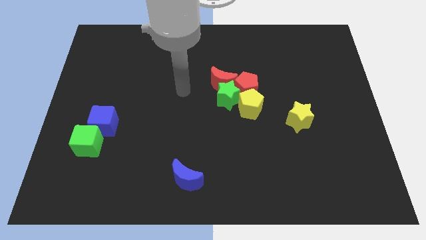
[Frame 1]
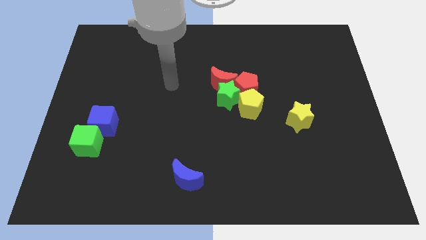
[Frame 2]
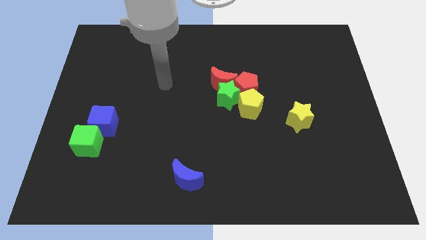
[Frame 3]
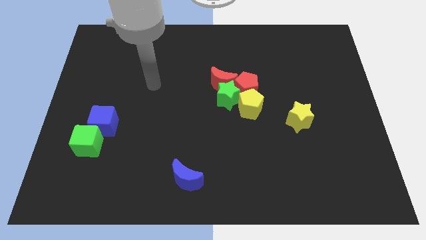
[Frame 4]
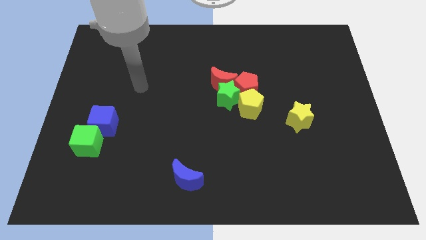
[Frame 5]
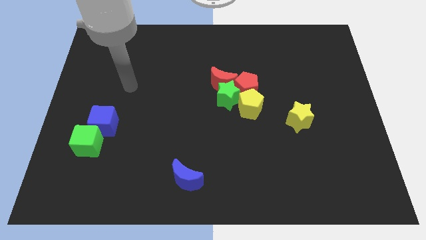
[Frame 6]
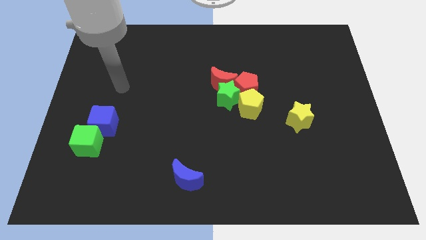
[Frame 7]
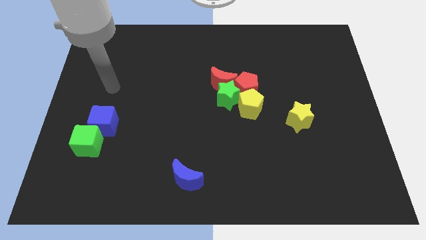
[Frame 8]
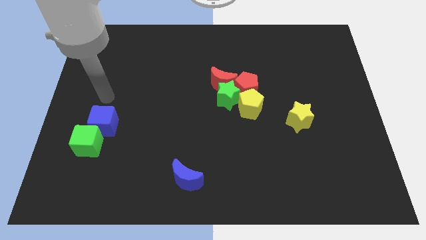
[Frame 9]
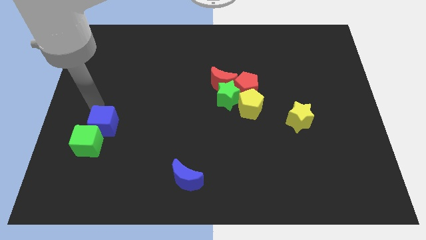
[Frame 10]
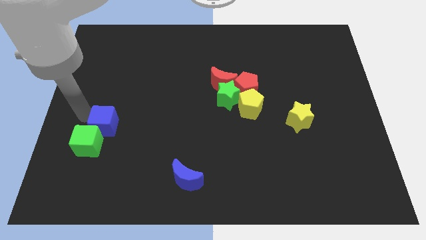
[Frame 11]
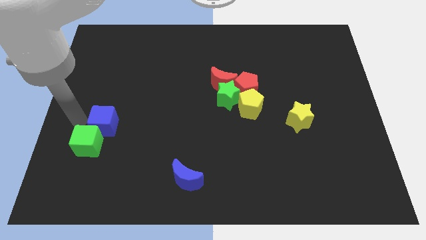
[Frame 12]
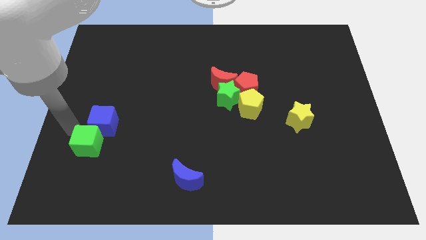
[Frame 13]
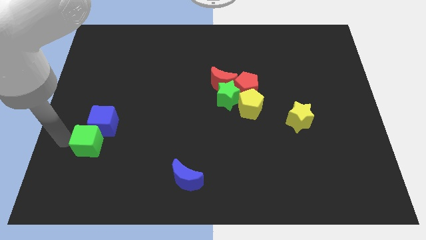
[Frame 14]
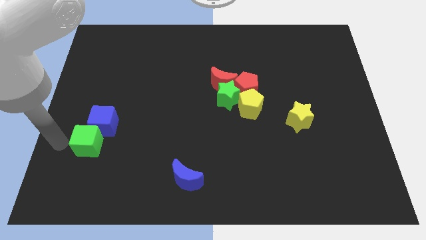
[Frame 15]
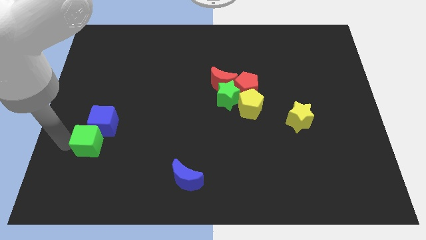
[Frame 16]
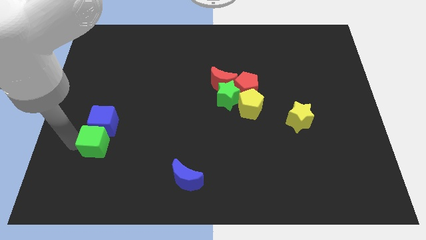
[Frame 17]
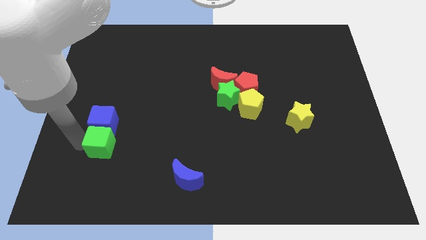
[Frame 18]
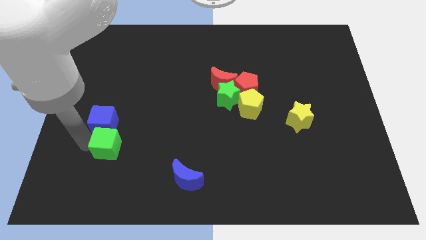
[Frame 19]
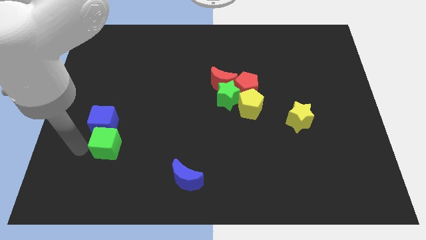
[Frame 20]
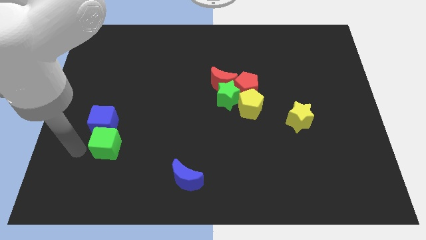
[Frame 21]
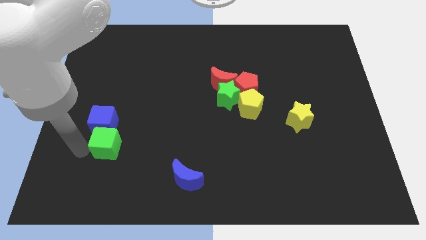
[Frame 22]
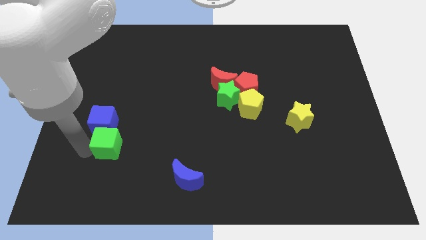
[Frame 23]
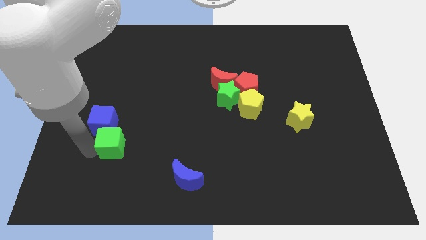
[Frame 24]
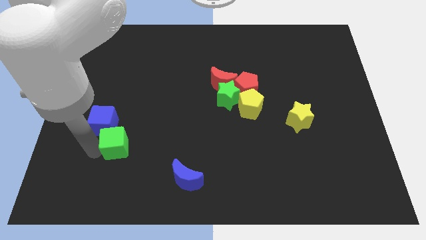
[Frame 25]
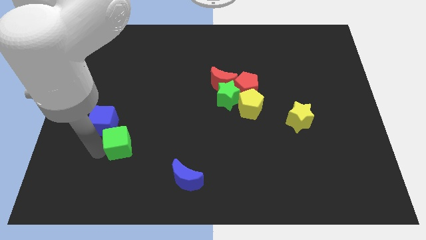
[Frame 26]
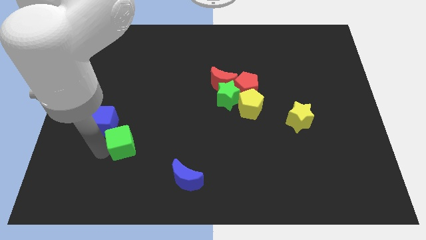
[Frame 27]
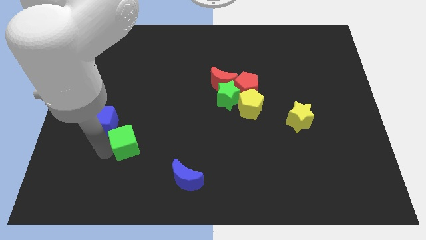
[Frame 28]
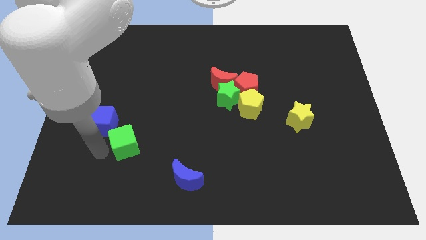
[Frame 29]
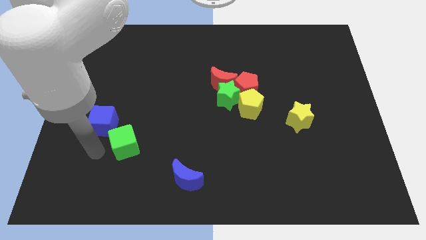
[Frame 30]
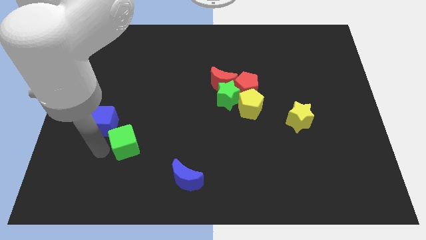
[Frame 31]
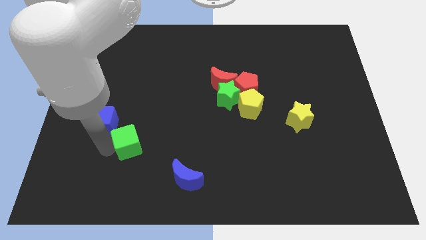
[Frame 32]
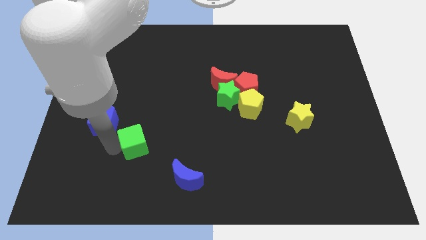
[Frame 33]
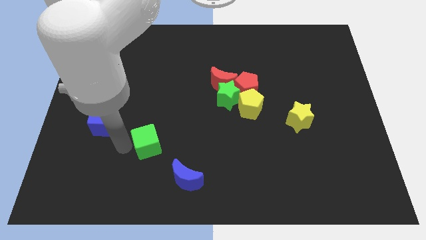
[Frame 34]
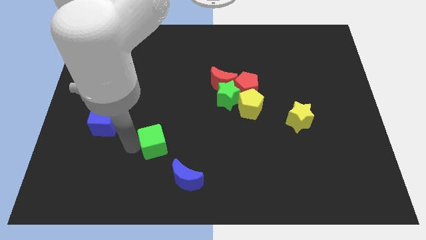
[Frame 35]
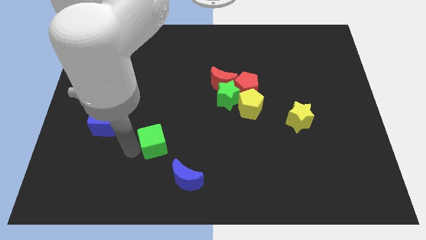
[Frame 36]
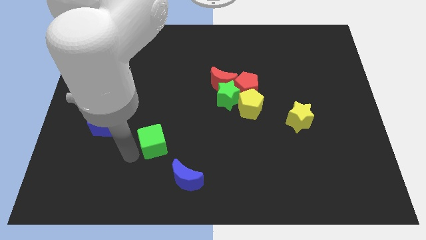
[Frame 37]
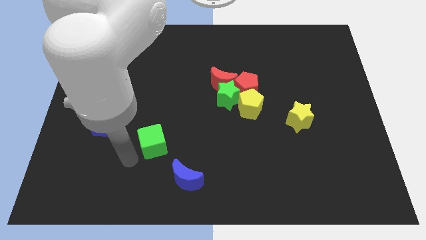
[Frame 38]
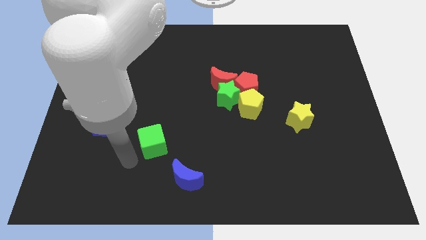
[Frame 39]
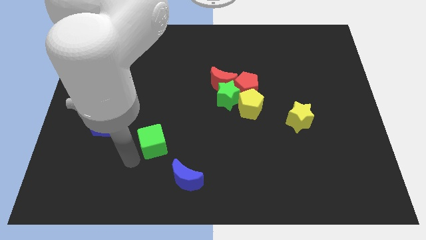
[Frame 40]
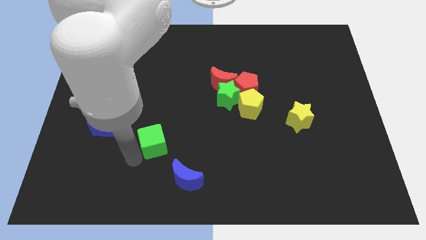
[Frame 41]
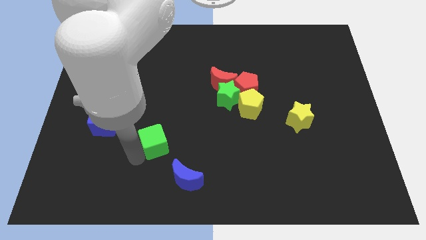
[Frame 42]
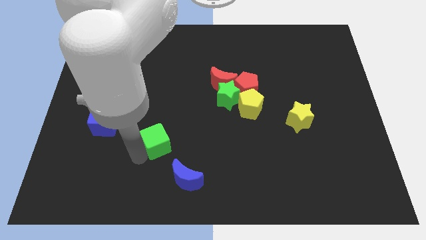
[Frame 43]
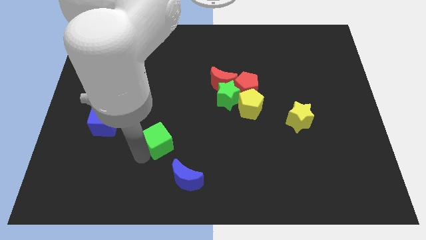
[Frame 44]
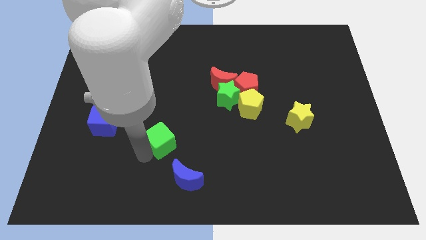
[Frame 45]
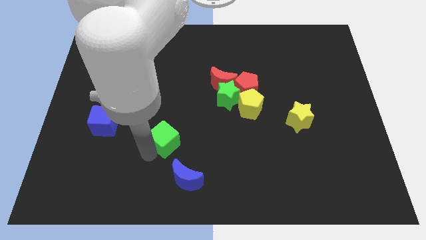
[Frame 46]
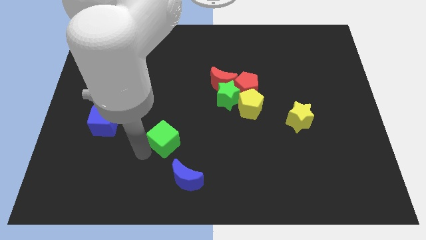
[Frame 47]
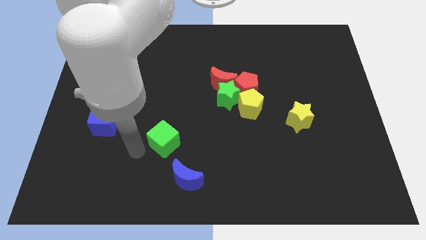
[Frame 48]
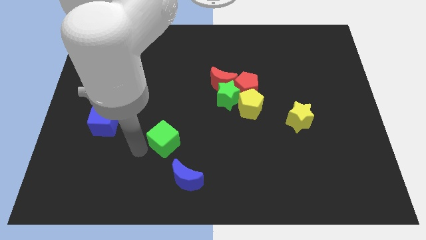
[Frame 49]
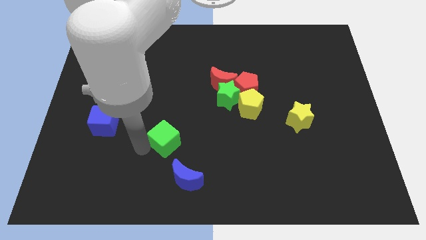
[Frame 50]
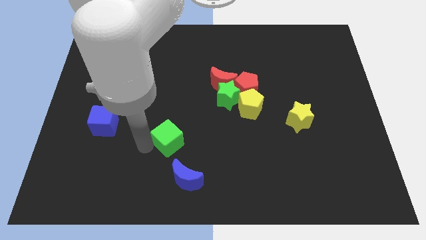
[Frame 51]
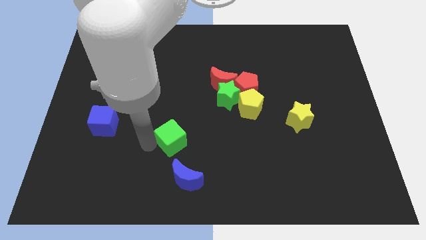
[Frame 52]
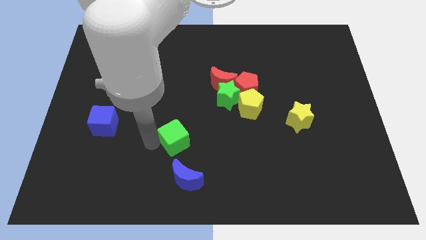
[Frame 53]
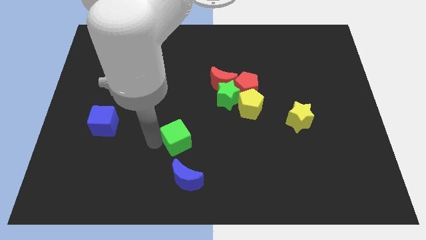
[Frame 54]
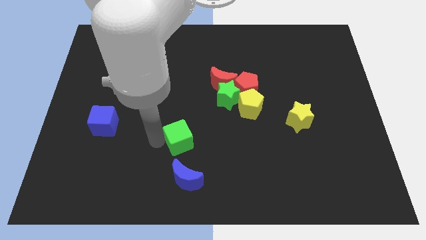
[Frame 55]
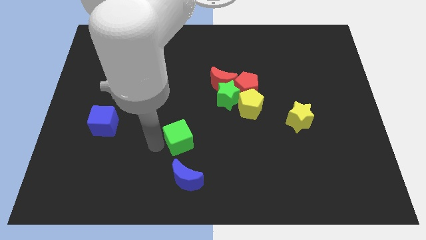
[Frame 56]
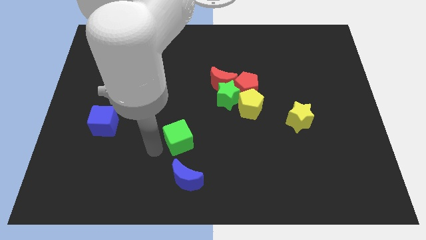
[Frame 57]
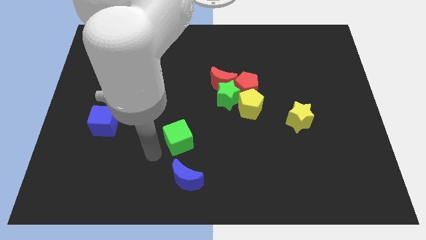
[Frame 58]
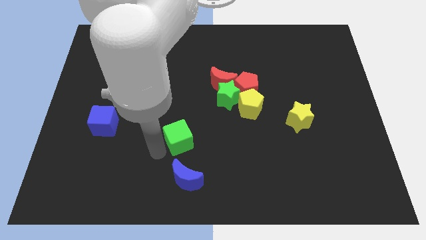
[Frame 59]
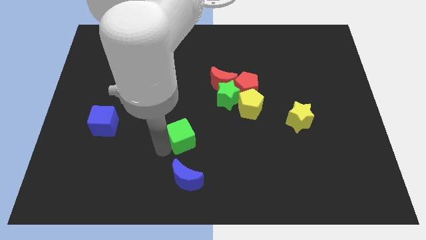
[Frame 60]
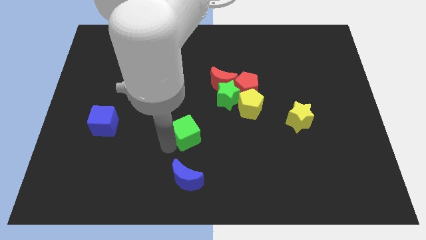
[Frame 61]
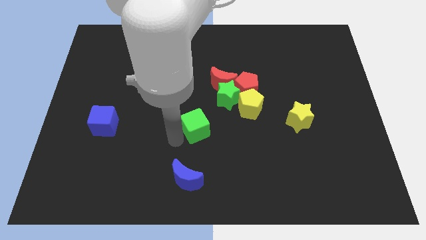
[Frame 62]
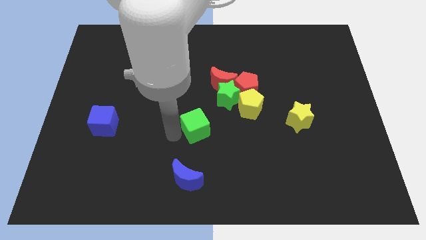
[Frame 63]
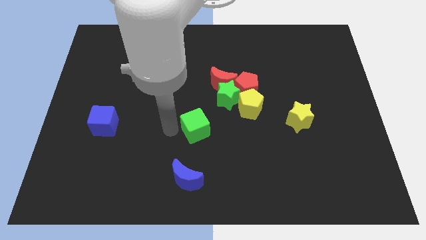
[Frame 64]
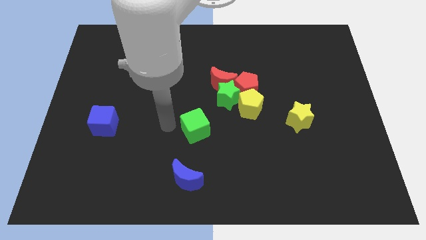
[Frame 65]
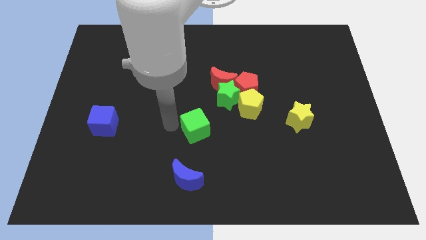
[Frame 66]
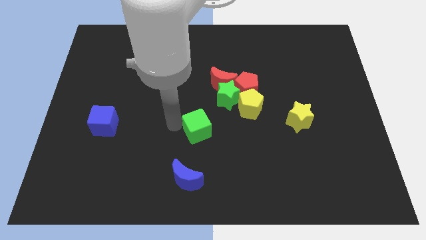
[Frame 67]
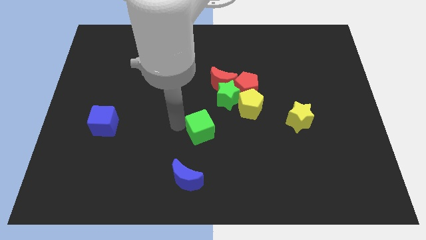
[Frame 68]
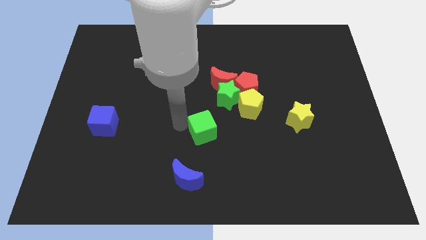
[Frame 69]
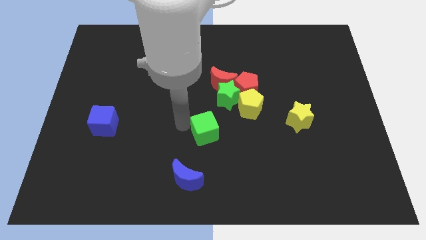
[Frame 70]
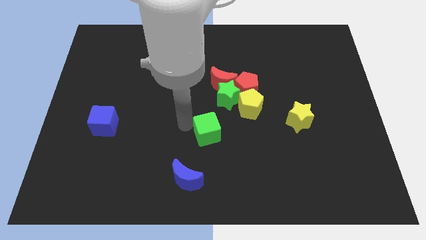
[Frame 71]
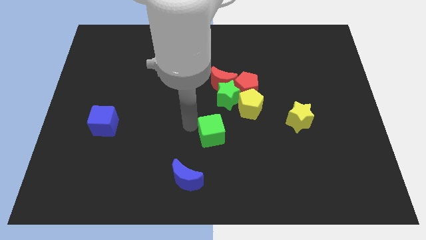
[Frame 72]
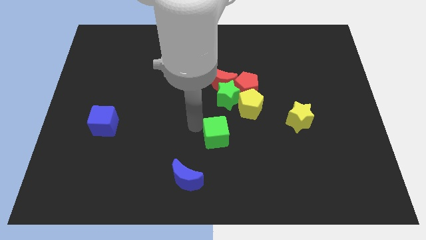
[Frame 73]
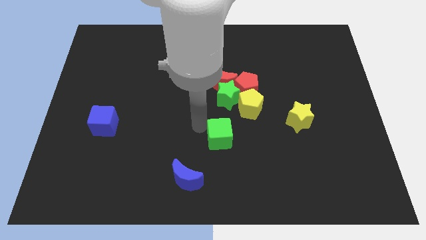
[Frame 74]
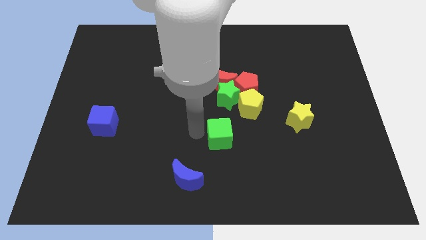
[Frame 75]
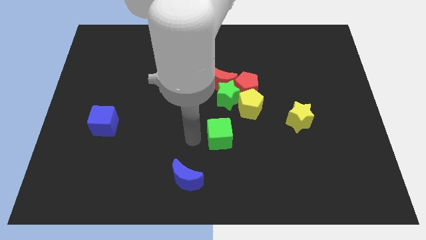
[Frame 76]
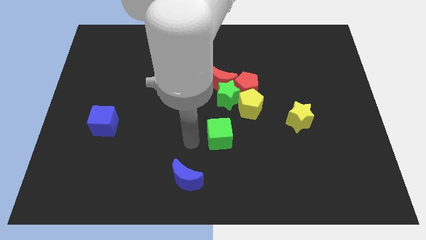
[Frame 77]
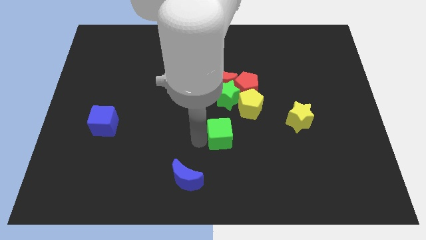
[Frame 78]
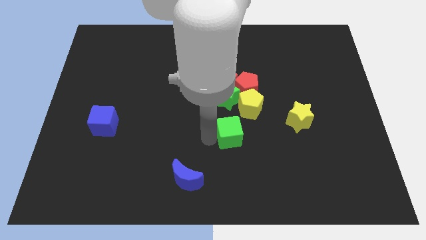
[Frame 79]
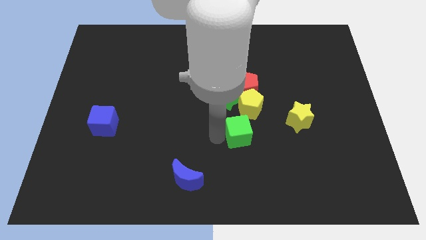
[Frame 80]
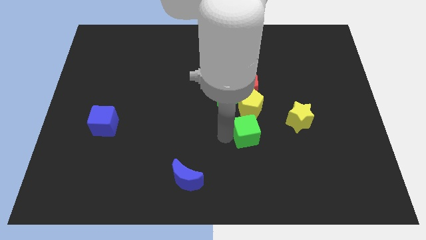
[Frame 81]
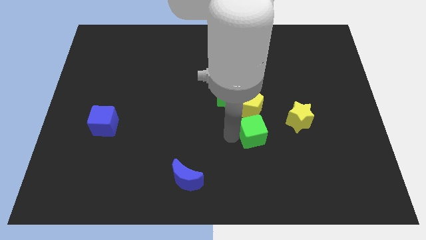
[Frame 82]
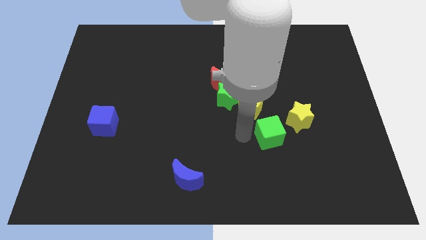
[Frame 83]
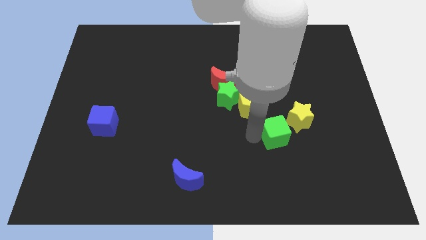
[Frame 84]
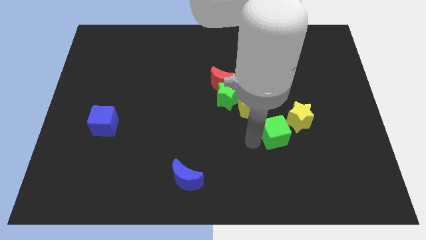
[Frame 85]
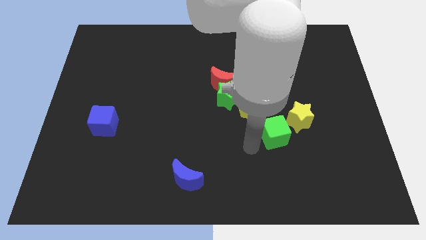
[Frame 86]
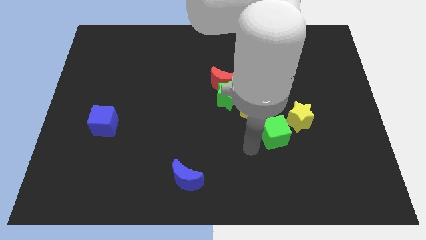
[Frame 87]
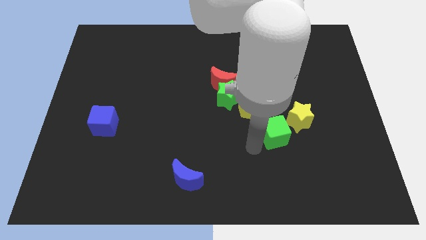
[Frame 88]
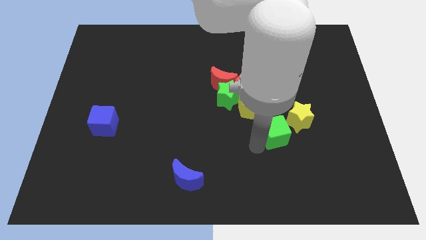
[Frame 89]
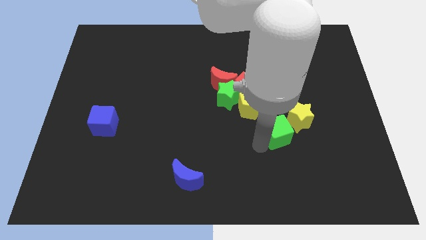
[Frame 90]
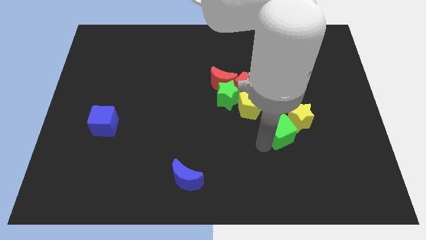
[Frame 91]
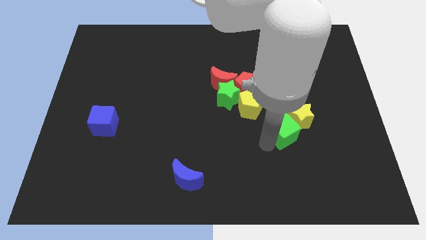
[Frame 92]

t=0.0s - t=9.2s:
put the green cube to the yellow star
